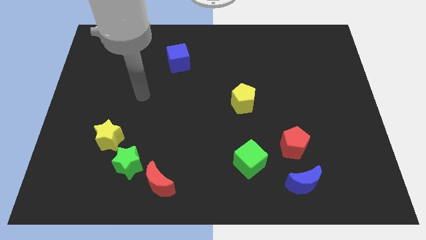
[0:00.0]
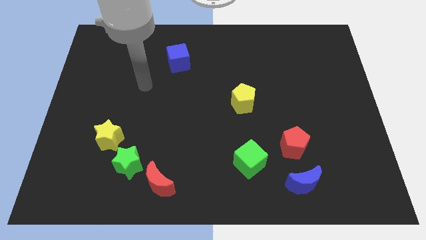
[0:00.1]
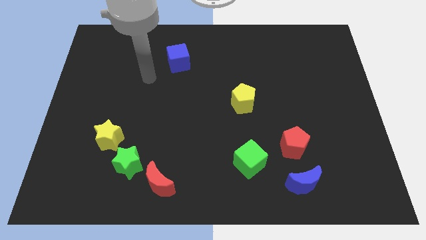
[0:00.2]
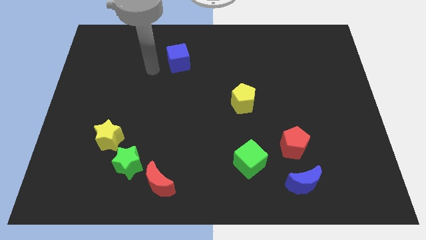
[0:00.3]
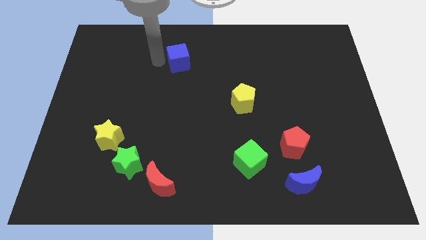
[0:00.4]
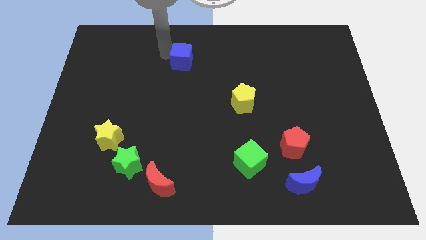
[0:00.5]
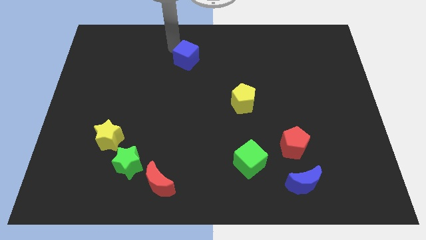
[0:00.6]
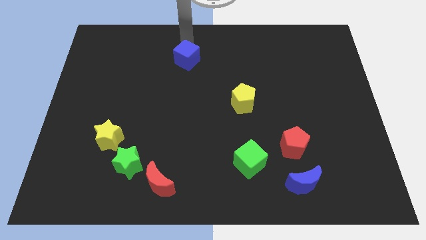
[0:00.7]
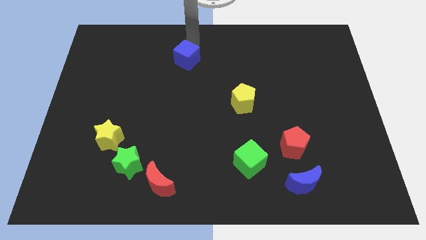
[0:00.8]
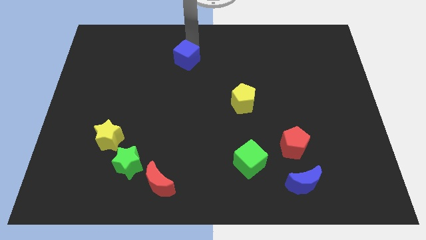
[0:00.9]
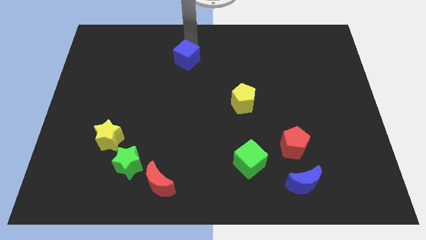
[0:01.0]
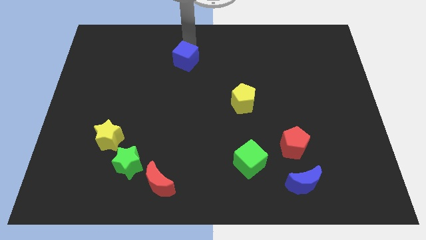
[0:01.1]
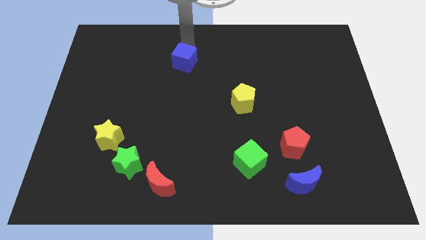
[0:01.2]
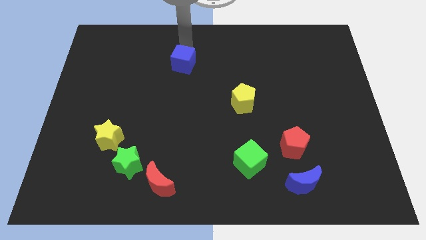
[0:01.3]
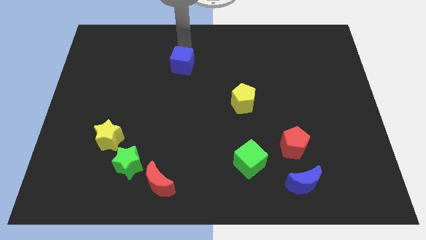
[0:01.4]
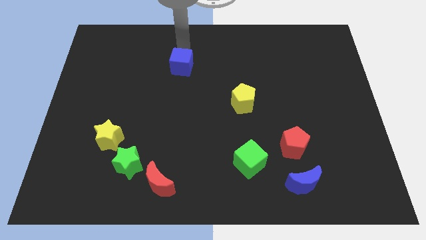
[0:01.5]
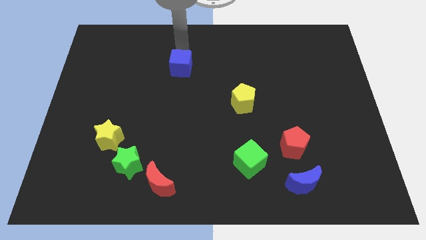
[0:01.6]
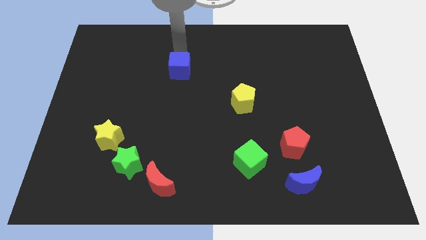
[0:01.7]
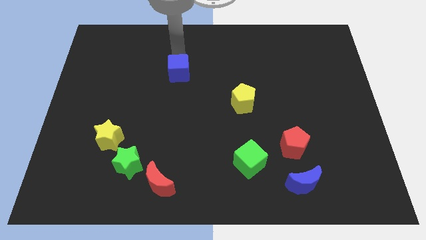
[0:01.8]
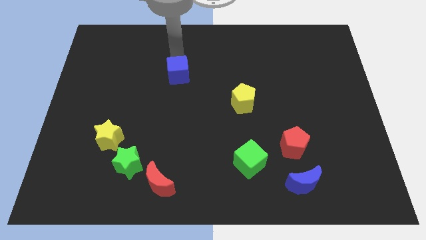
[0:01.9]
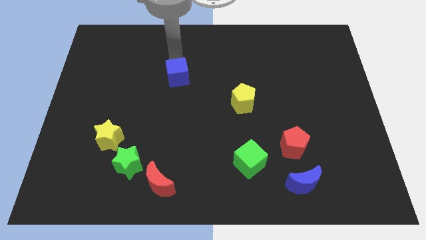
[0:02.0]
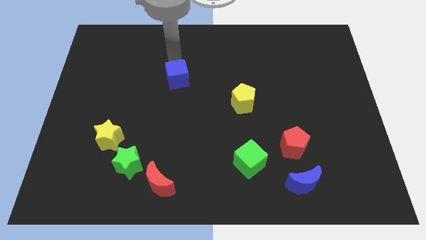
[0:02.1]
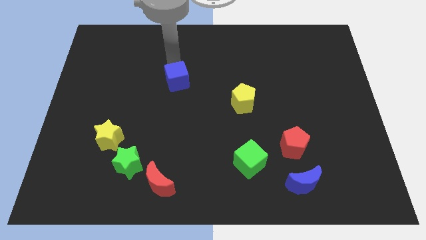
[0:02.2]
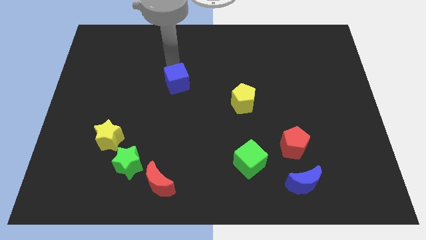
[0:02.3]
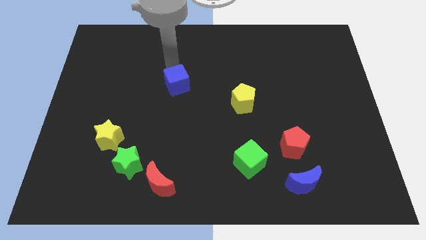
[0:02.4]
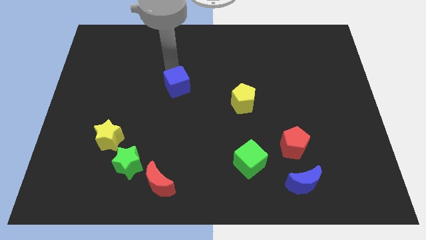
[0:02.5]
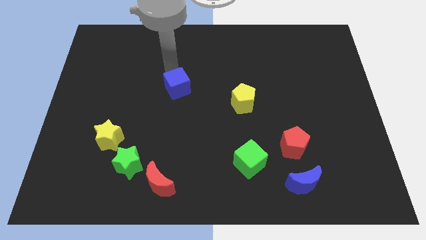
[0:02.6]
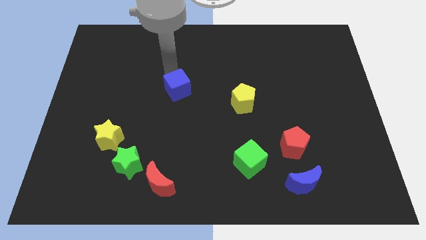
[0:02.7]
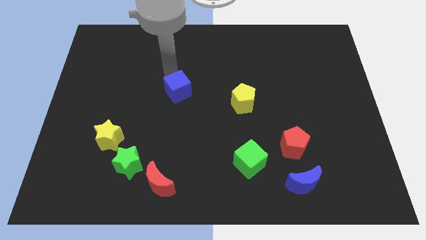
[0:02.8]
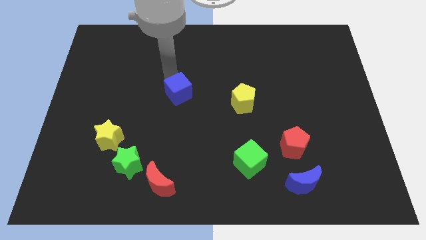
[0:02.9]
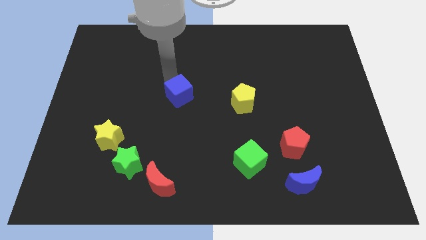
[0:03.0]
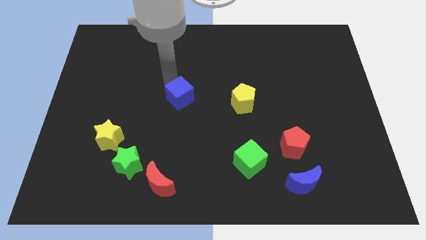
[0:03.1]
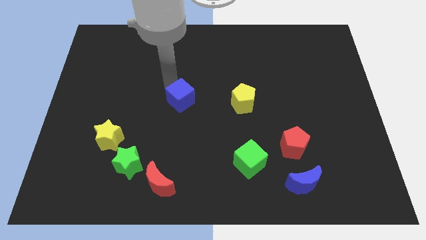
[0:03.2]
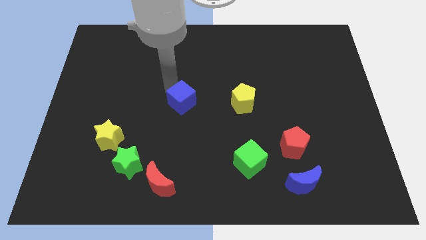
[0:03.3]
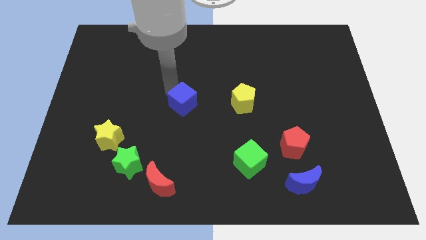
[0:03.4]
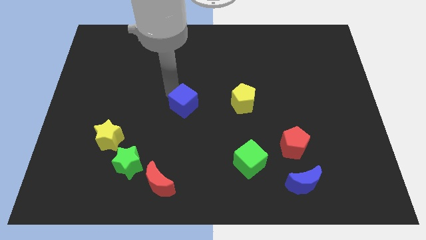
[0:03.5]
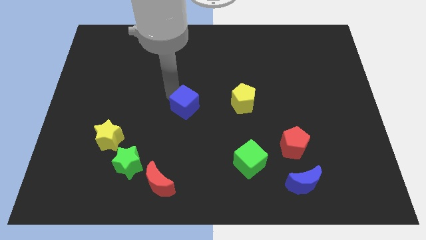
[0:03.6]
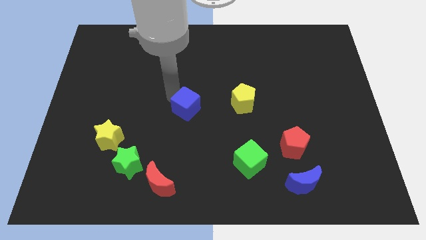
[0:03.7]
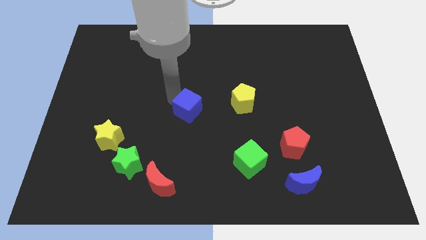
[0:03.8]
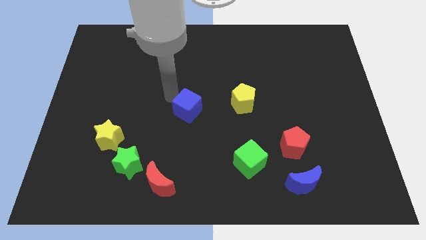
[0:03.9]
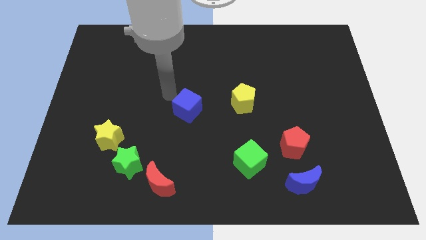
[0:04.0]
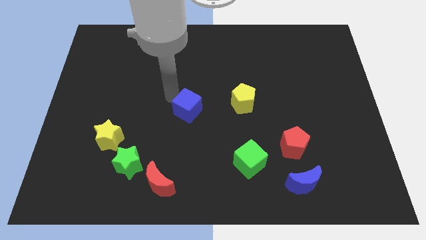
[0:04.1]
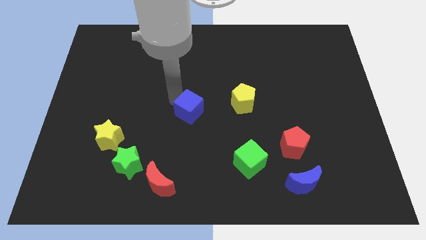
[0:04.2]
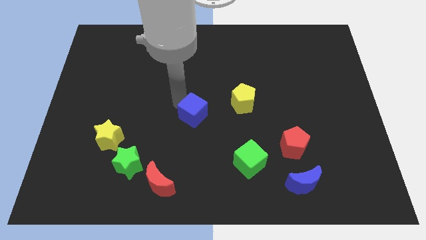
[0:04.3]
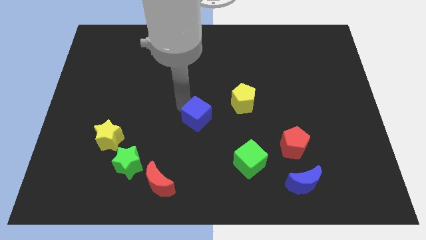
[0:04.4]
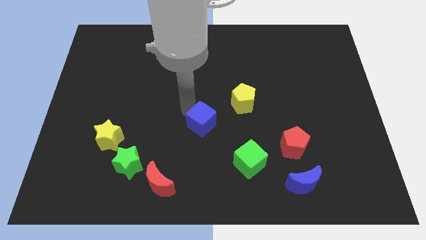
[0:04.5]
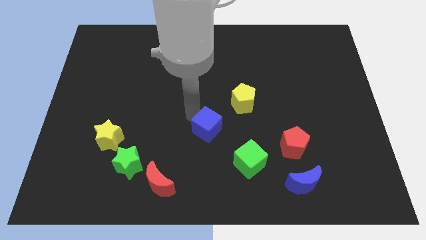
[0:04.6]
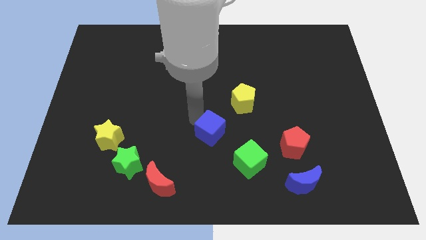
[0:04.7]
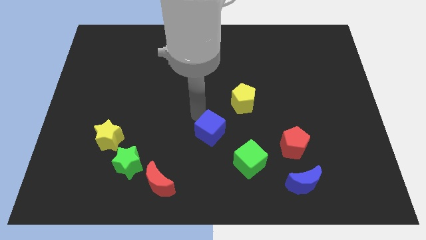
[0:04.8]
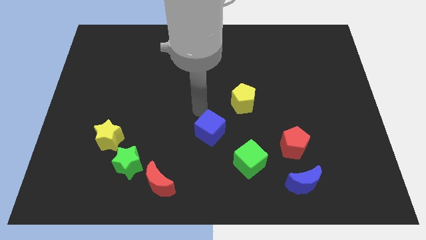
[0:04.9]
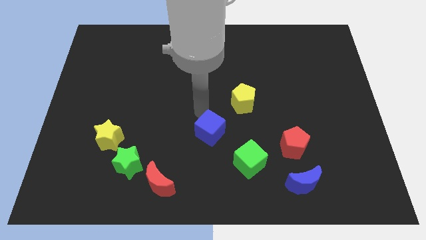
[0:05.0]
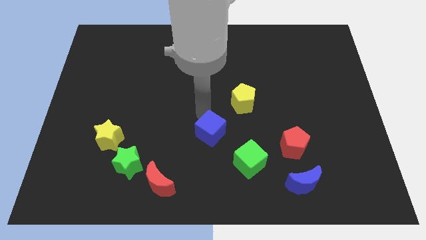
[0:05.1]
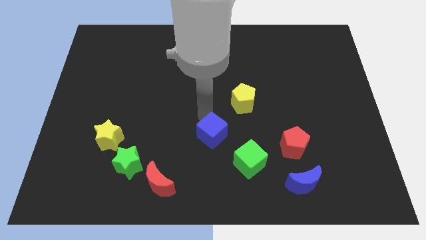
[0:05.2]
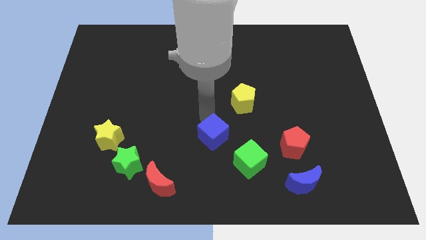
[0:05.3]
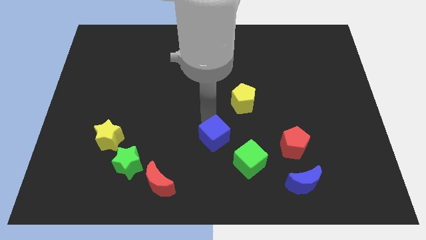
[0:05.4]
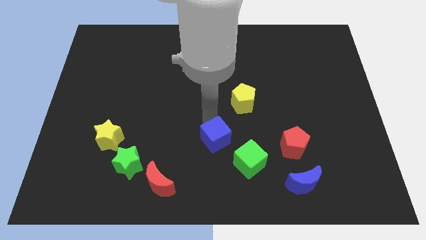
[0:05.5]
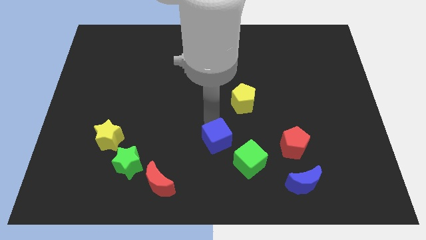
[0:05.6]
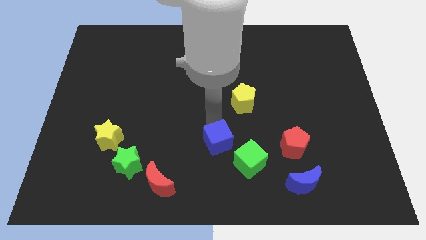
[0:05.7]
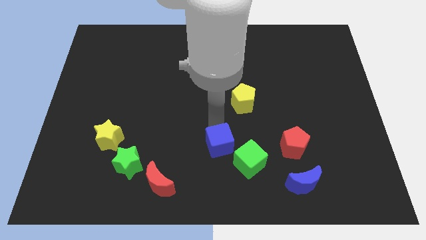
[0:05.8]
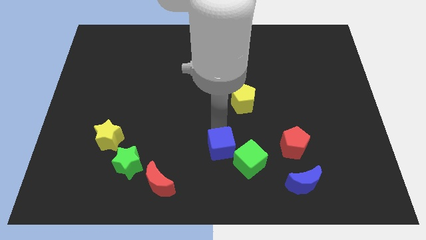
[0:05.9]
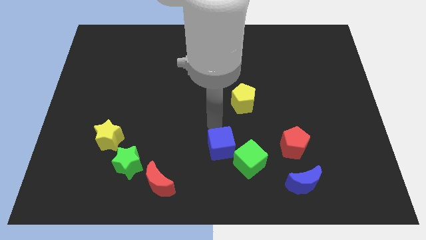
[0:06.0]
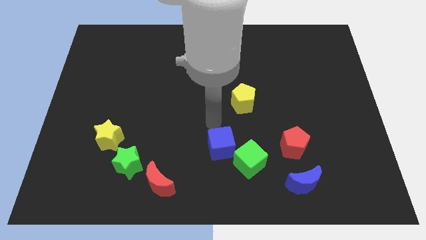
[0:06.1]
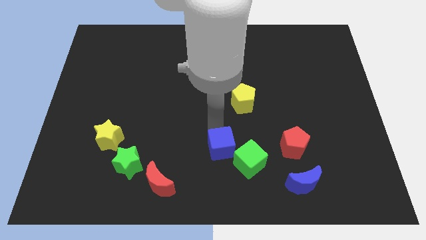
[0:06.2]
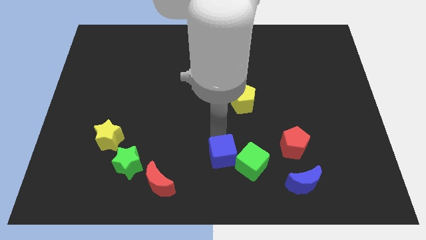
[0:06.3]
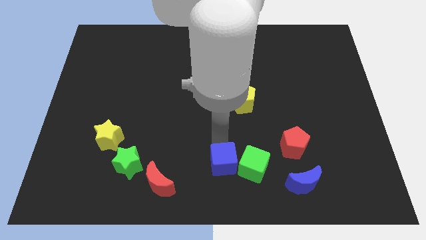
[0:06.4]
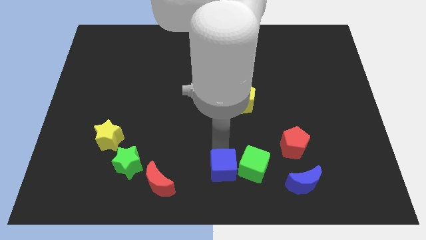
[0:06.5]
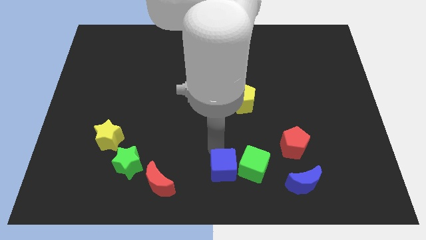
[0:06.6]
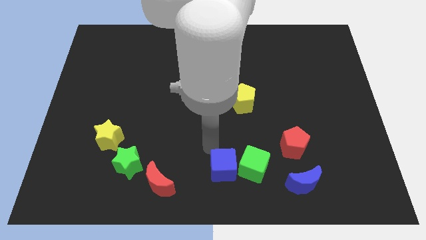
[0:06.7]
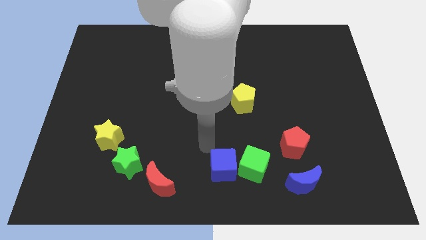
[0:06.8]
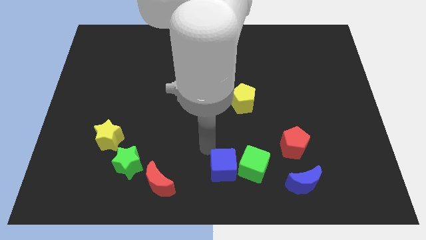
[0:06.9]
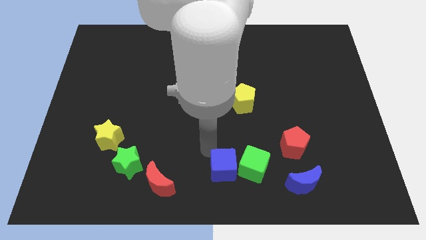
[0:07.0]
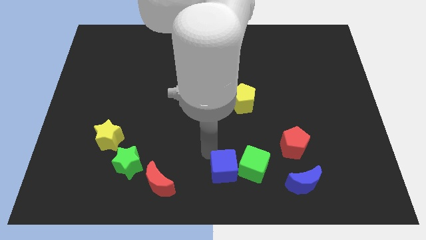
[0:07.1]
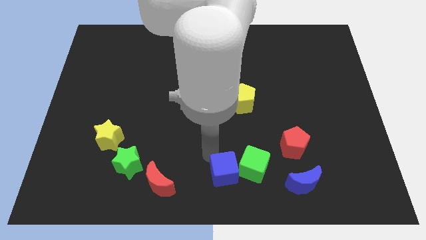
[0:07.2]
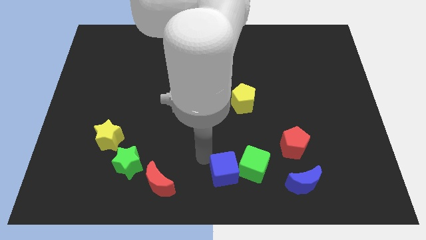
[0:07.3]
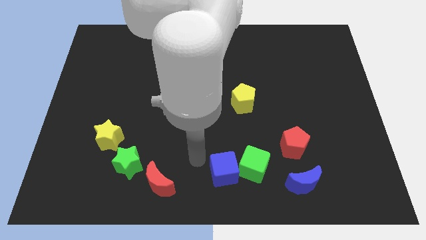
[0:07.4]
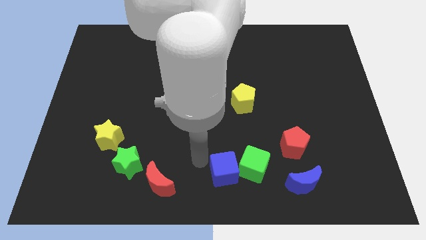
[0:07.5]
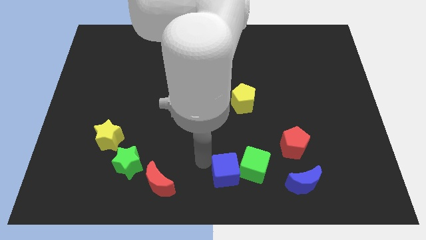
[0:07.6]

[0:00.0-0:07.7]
move the blue cube to the left of the blue moon
